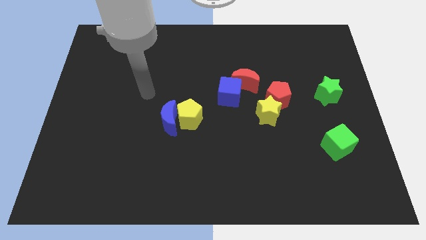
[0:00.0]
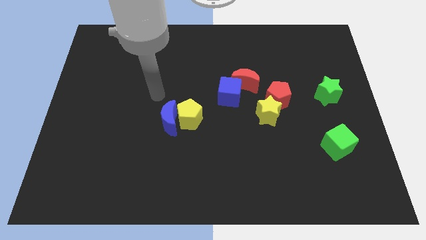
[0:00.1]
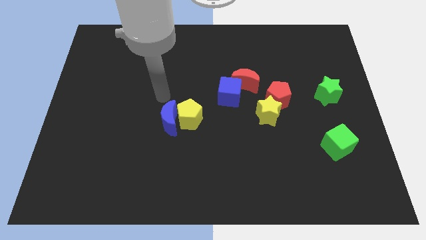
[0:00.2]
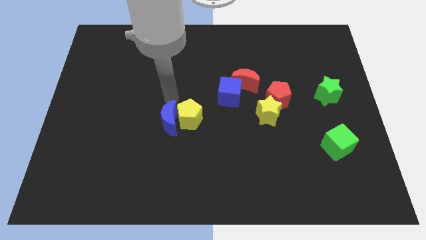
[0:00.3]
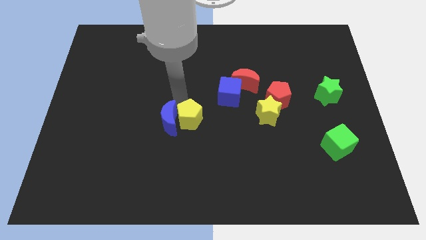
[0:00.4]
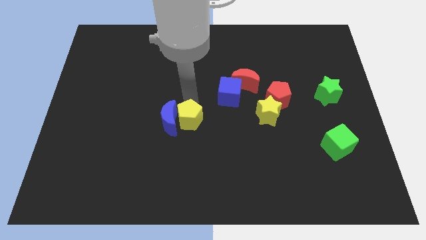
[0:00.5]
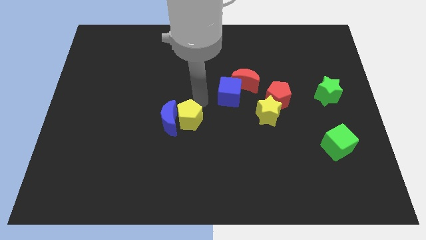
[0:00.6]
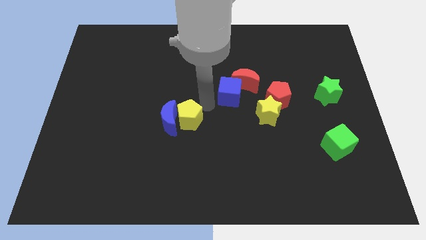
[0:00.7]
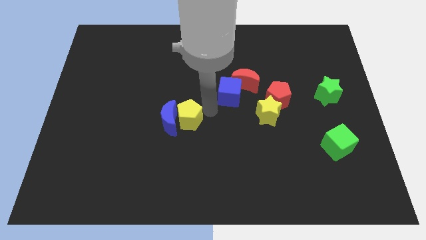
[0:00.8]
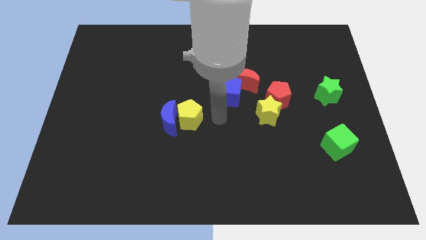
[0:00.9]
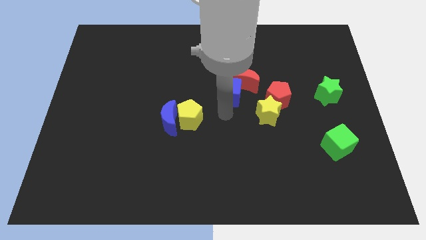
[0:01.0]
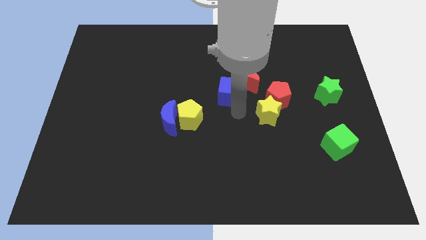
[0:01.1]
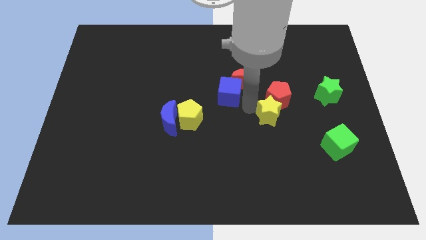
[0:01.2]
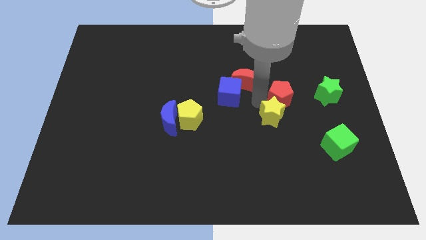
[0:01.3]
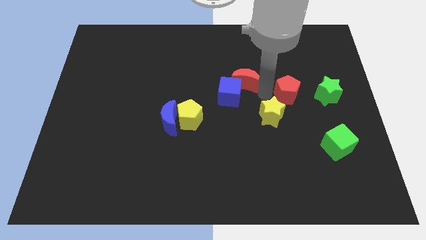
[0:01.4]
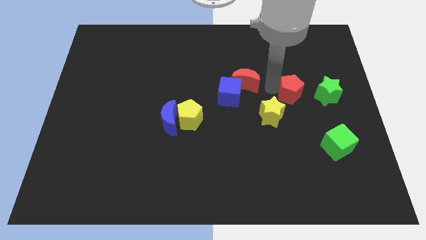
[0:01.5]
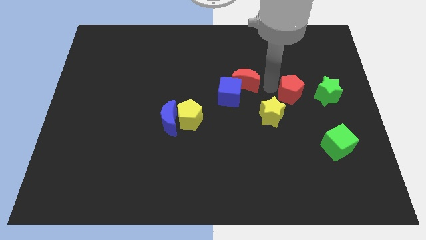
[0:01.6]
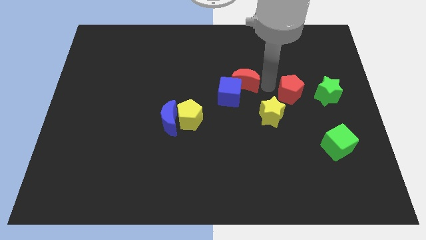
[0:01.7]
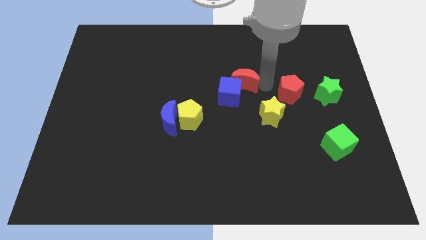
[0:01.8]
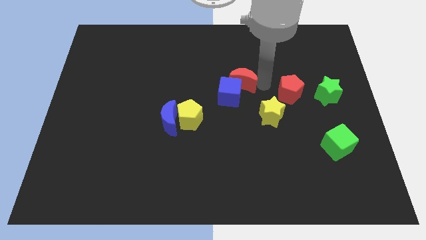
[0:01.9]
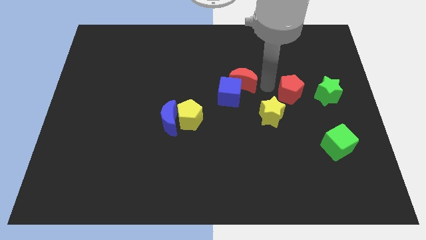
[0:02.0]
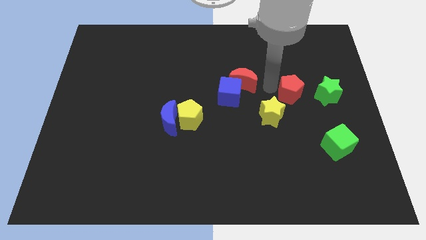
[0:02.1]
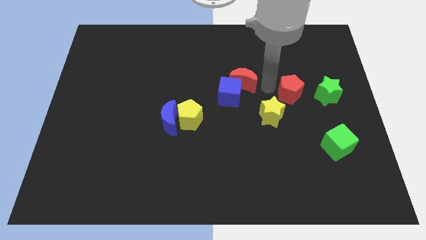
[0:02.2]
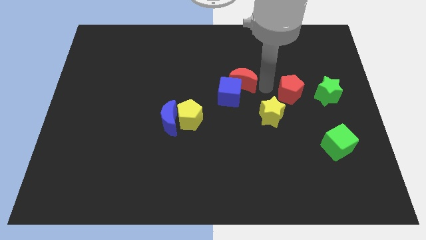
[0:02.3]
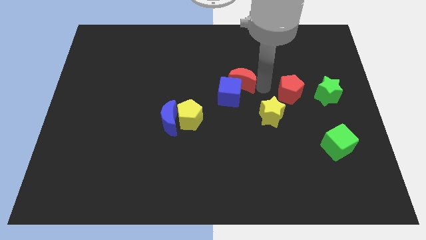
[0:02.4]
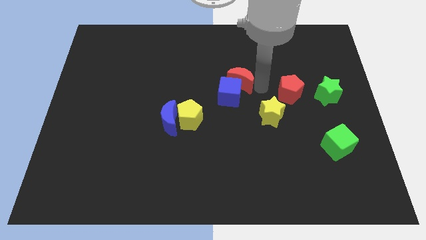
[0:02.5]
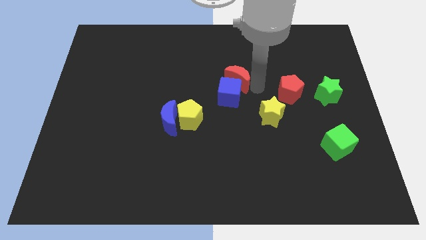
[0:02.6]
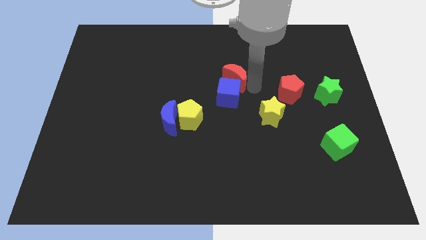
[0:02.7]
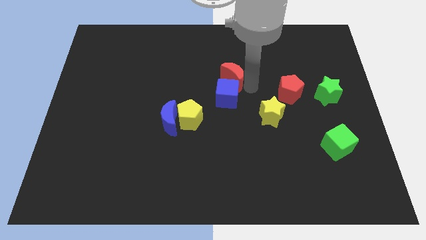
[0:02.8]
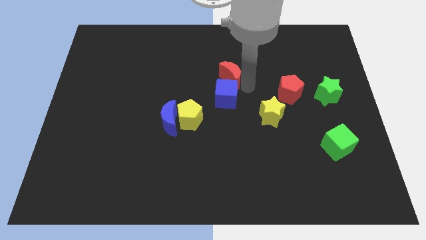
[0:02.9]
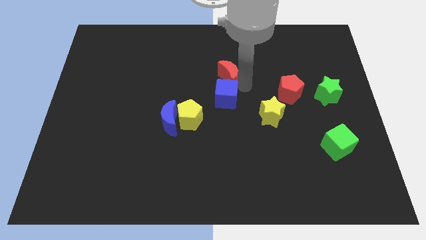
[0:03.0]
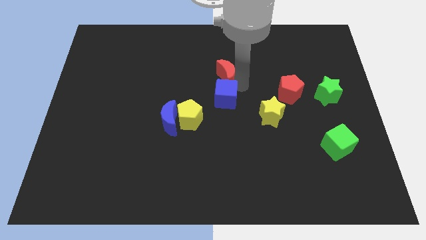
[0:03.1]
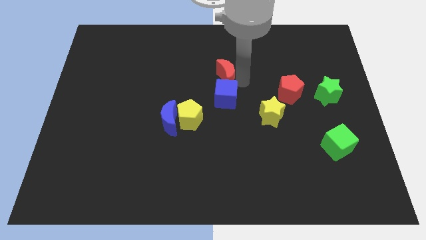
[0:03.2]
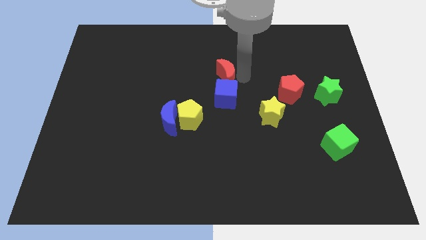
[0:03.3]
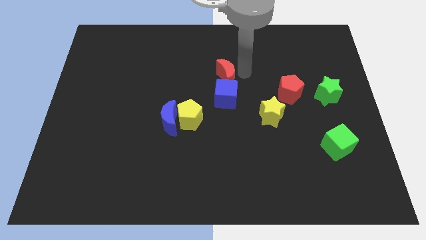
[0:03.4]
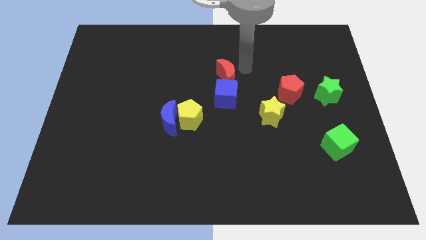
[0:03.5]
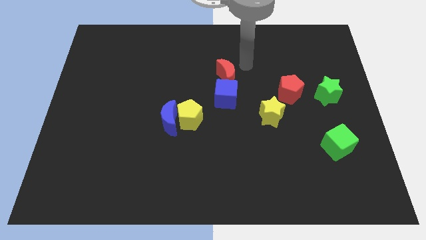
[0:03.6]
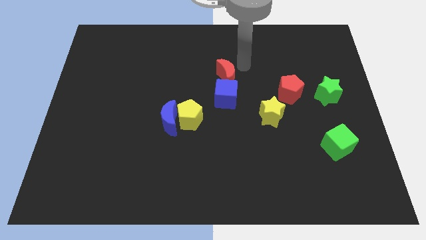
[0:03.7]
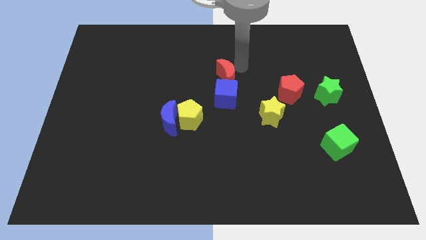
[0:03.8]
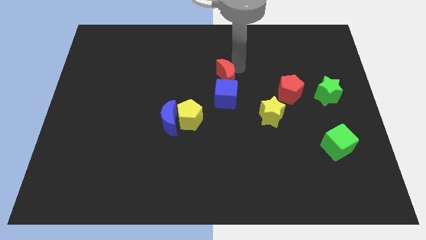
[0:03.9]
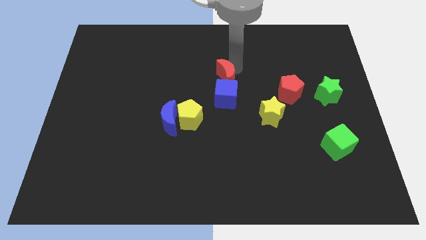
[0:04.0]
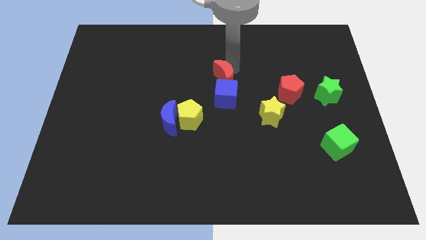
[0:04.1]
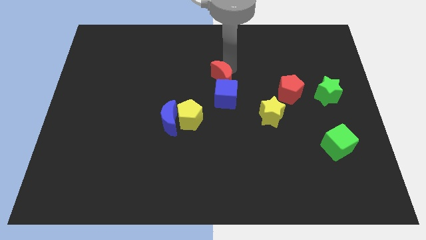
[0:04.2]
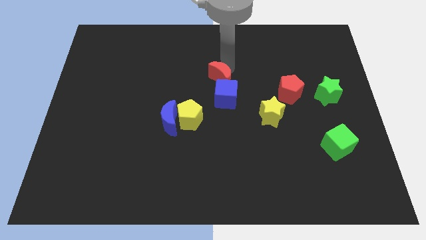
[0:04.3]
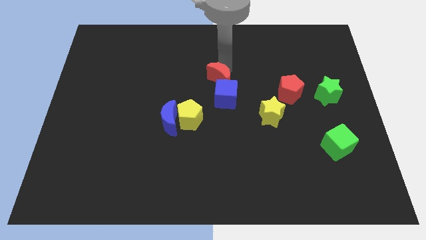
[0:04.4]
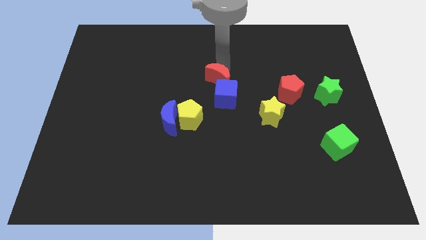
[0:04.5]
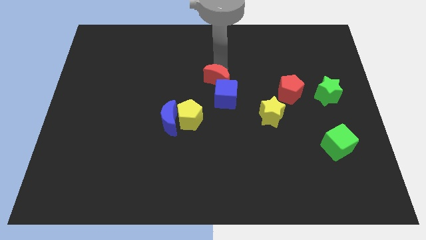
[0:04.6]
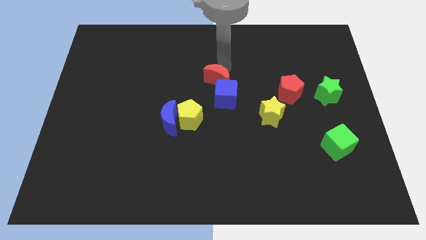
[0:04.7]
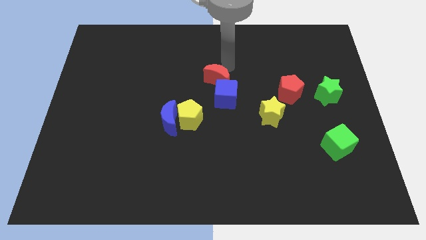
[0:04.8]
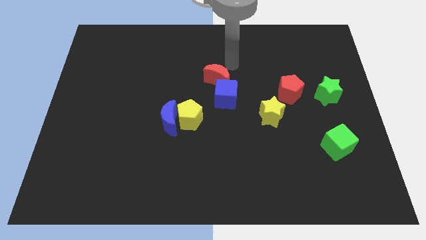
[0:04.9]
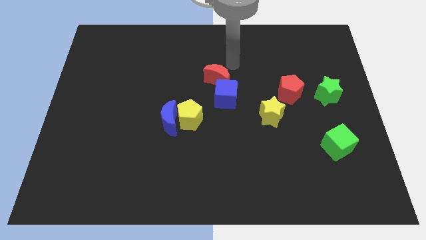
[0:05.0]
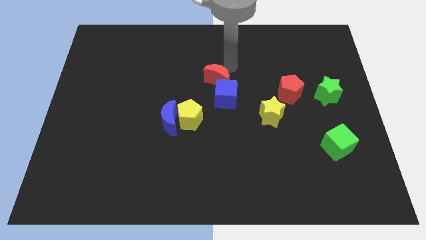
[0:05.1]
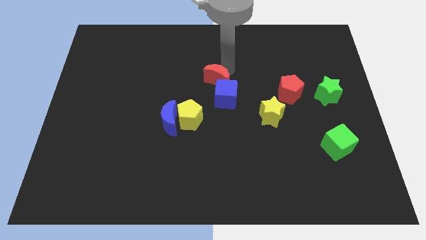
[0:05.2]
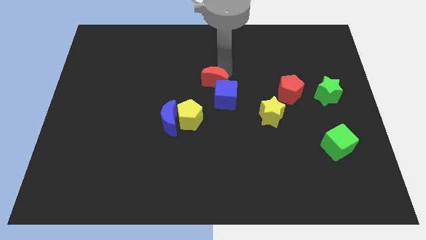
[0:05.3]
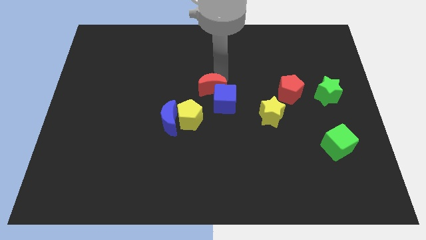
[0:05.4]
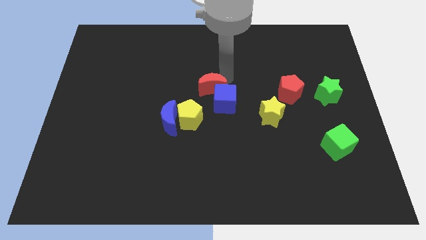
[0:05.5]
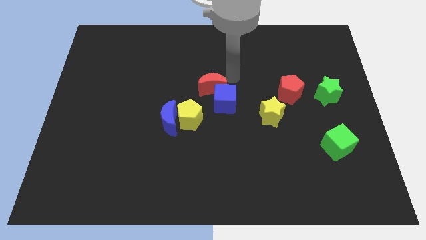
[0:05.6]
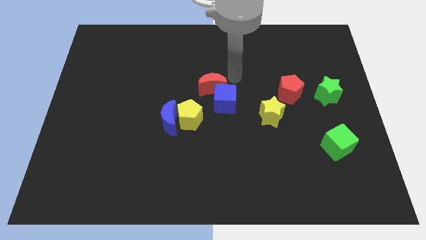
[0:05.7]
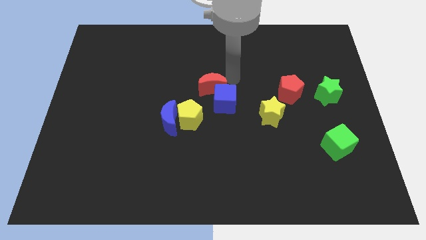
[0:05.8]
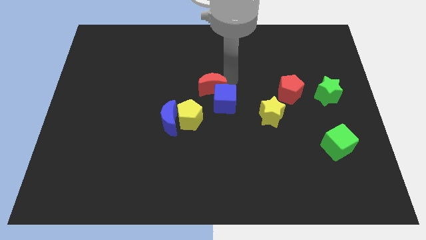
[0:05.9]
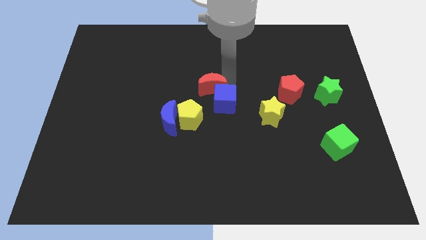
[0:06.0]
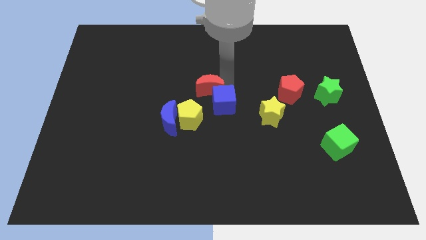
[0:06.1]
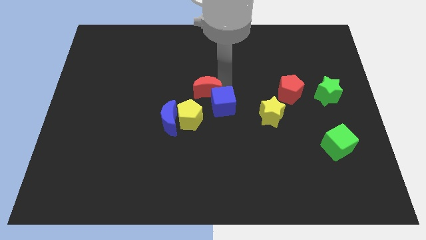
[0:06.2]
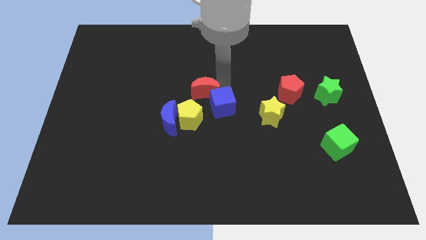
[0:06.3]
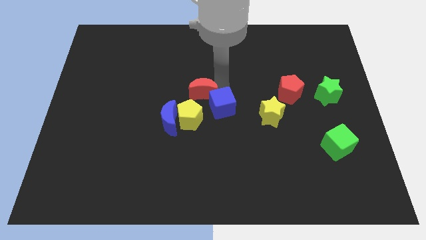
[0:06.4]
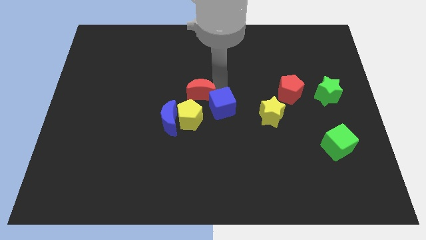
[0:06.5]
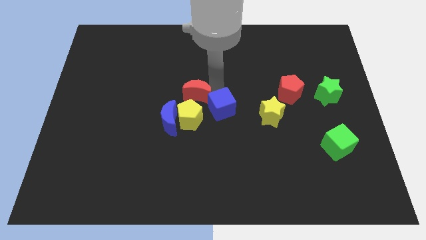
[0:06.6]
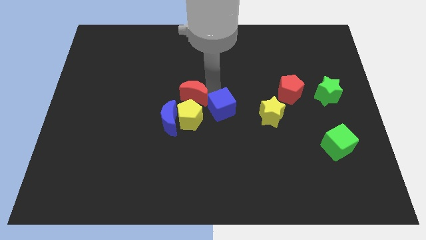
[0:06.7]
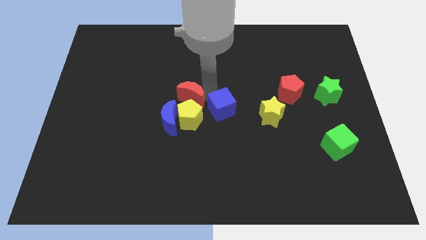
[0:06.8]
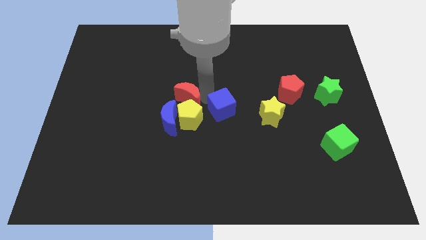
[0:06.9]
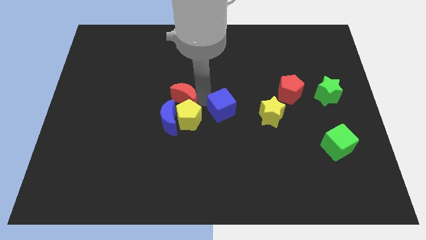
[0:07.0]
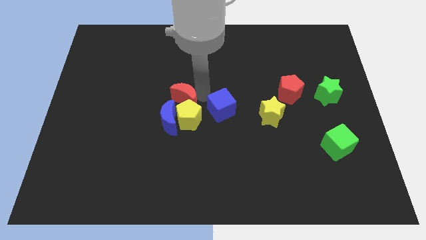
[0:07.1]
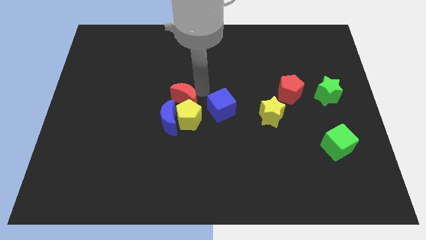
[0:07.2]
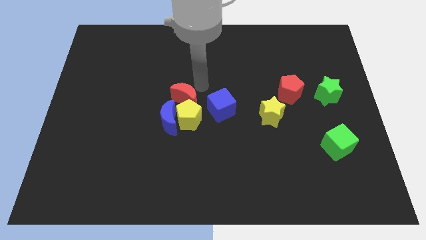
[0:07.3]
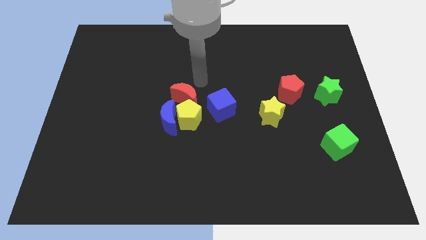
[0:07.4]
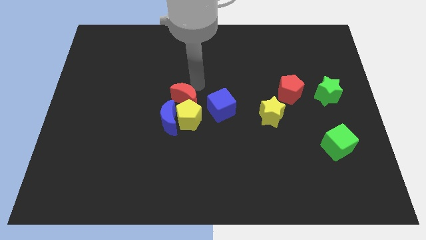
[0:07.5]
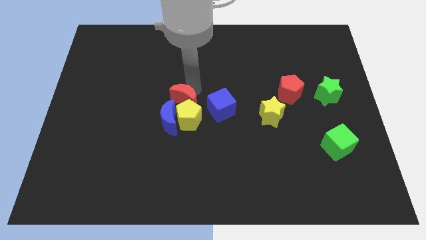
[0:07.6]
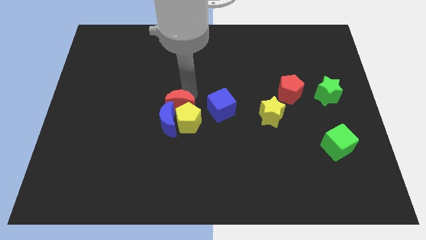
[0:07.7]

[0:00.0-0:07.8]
put the red moon towards the blue moon
